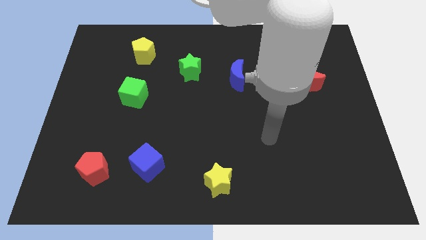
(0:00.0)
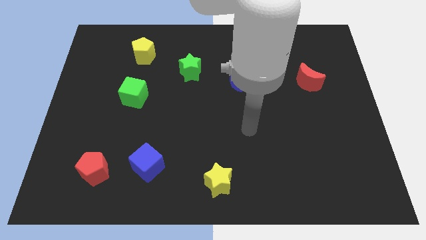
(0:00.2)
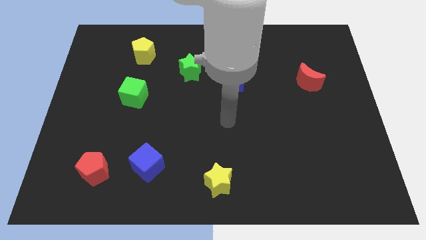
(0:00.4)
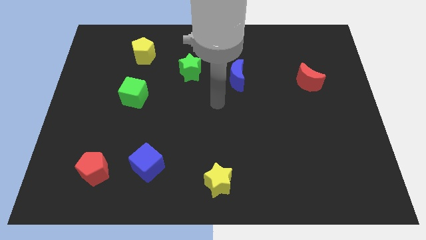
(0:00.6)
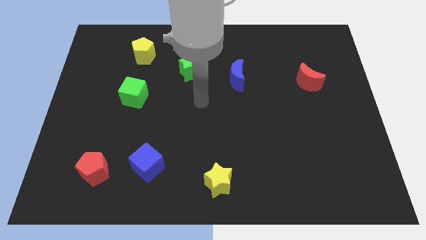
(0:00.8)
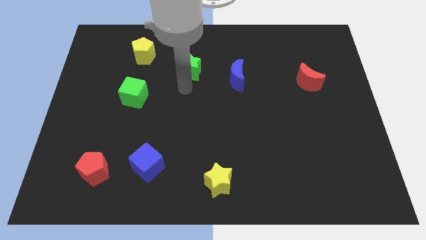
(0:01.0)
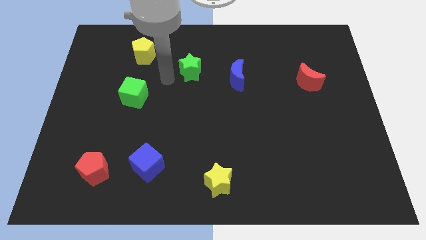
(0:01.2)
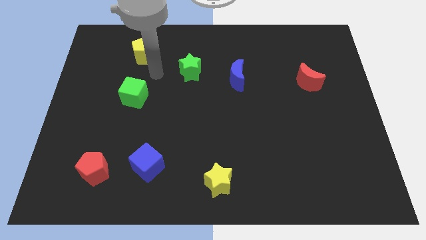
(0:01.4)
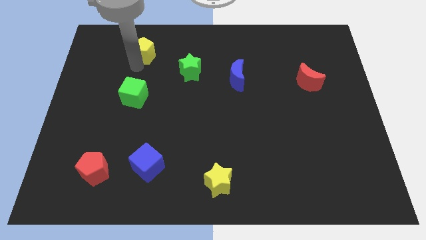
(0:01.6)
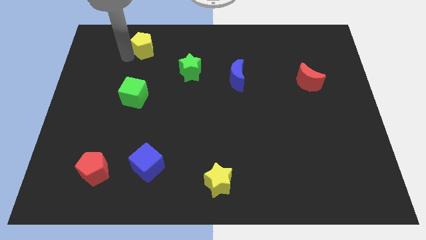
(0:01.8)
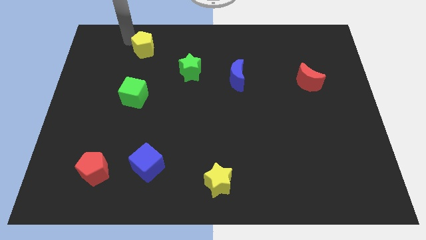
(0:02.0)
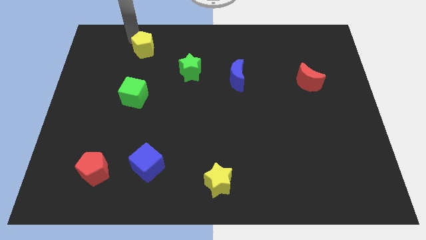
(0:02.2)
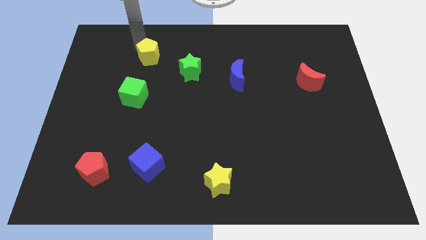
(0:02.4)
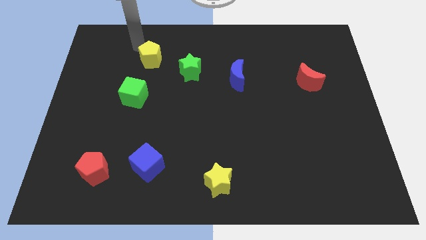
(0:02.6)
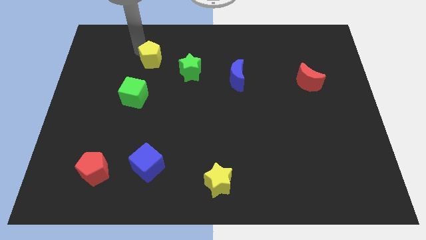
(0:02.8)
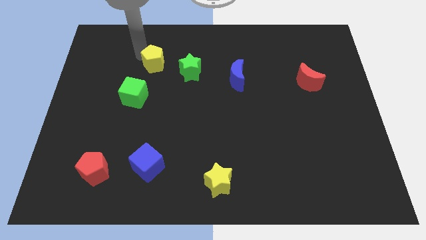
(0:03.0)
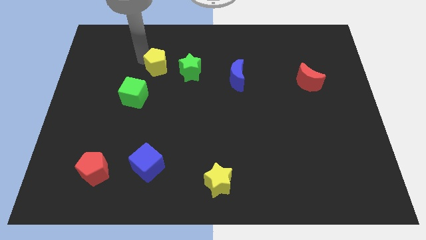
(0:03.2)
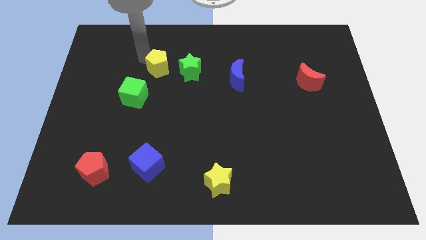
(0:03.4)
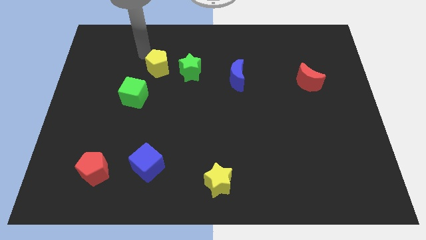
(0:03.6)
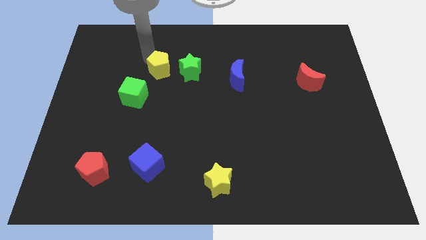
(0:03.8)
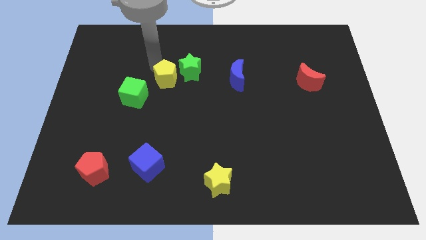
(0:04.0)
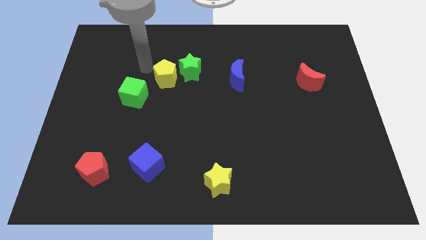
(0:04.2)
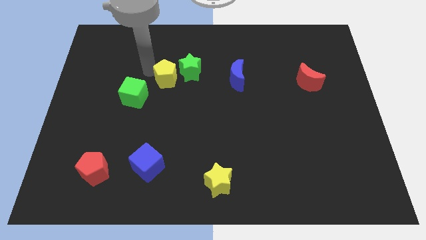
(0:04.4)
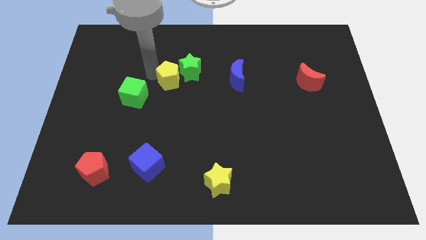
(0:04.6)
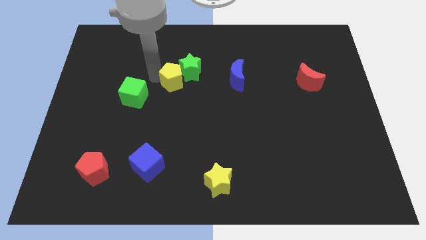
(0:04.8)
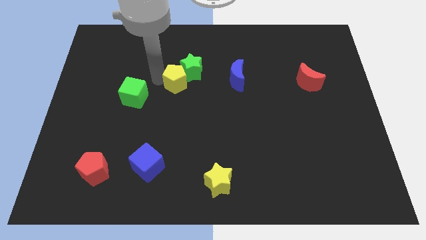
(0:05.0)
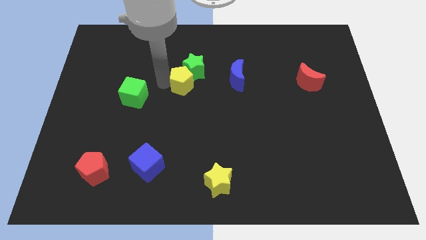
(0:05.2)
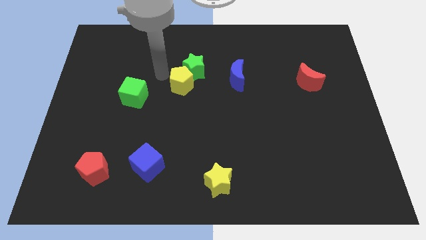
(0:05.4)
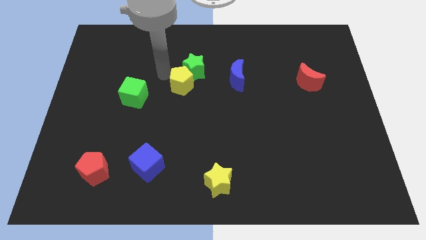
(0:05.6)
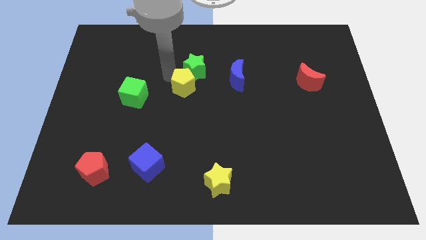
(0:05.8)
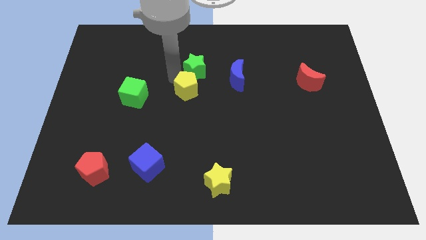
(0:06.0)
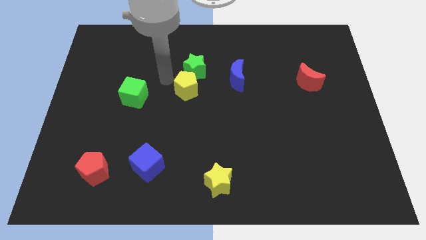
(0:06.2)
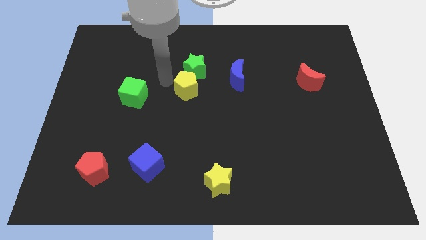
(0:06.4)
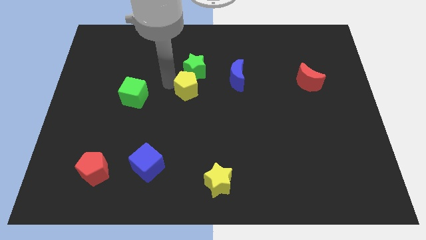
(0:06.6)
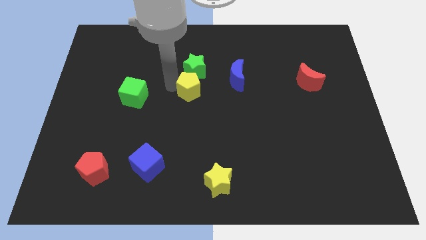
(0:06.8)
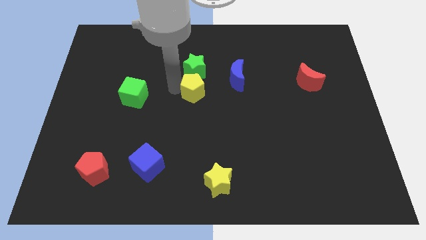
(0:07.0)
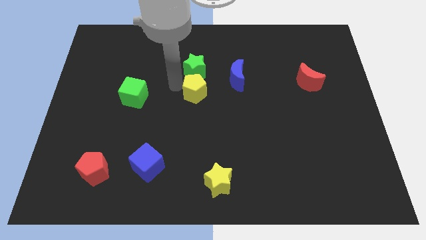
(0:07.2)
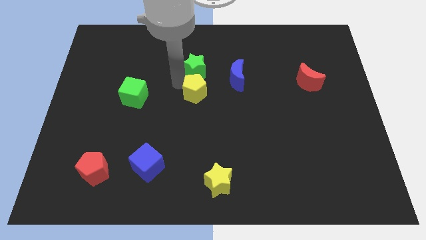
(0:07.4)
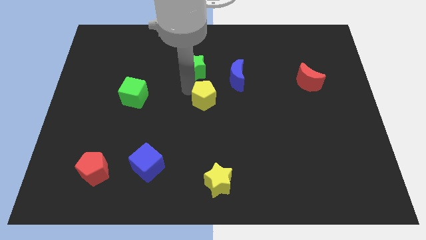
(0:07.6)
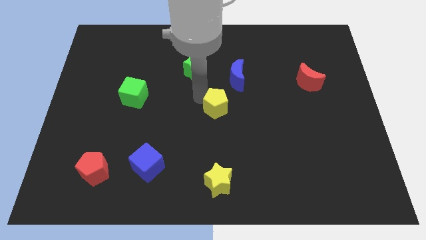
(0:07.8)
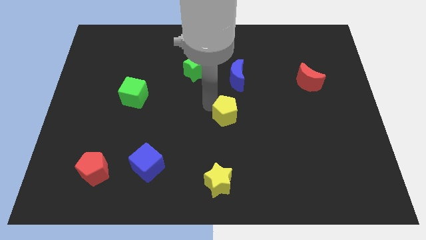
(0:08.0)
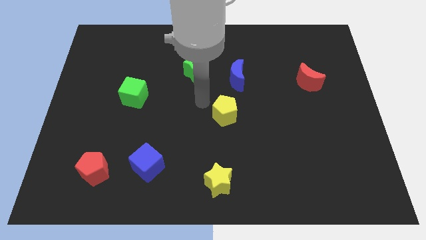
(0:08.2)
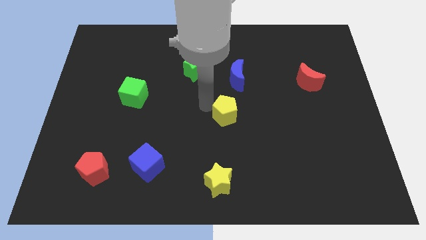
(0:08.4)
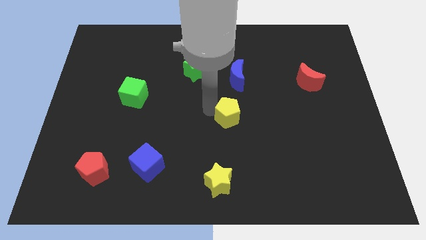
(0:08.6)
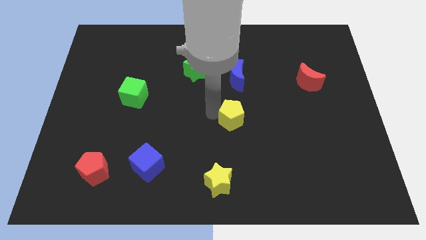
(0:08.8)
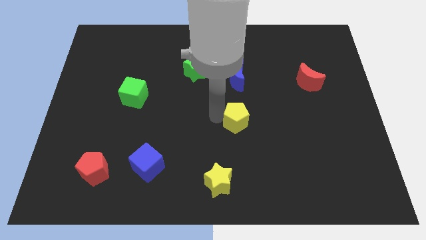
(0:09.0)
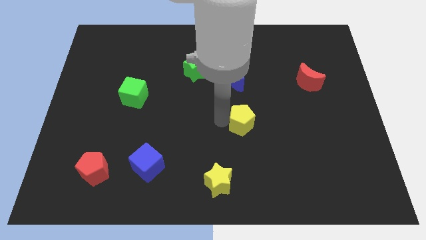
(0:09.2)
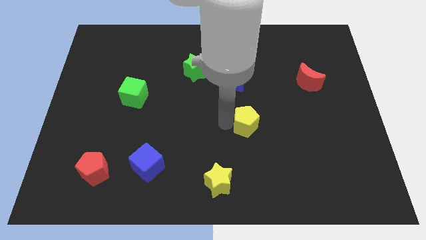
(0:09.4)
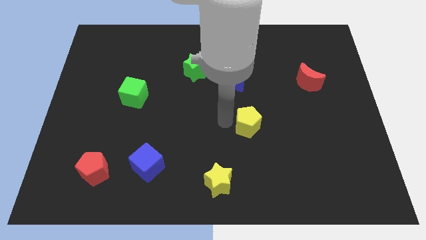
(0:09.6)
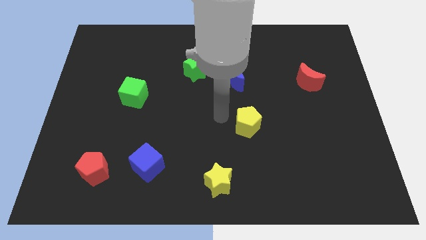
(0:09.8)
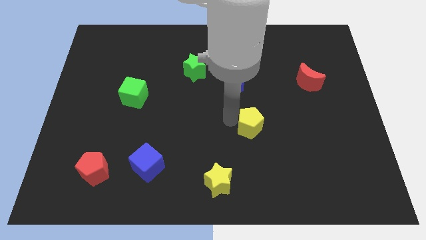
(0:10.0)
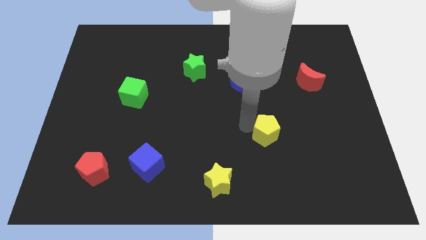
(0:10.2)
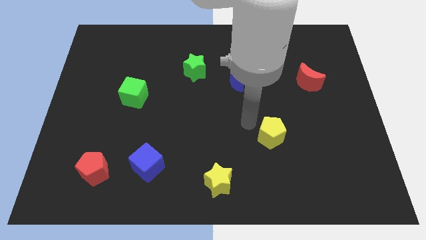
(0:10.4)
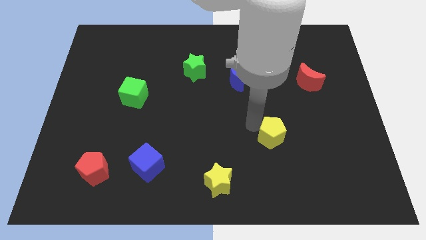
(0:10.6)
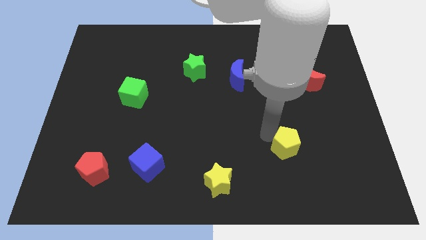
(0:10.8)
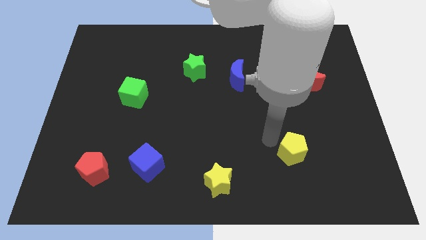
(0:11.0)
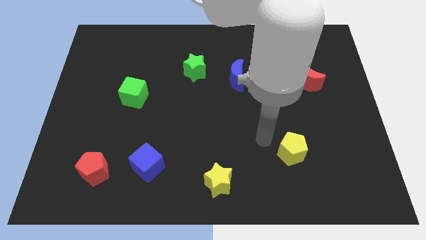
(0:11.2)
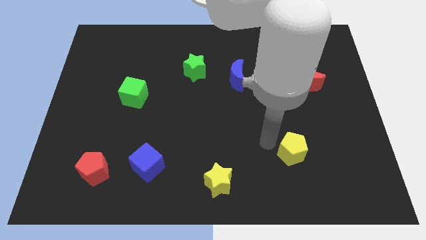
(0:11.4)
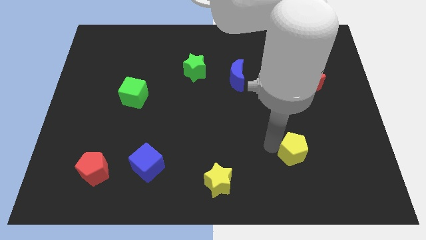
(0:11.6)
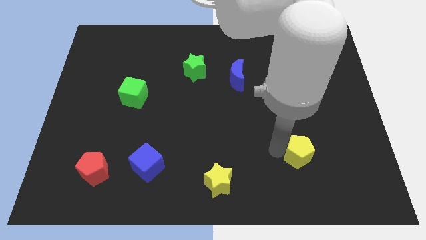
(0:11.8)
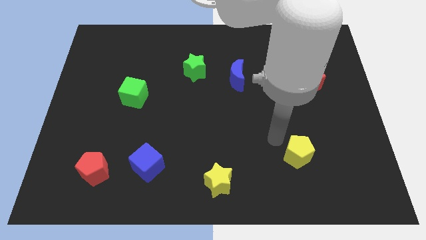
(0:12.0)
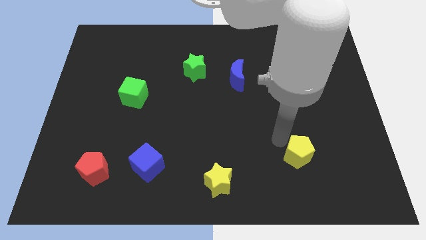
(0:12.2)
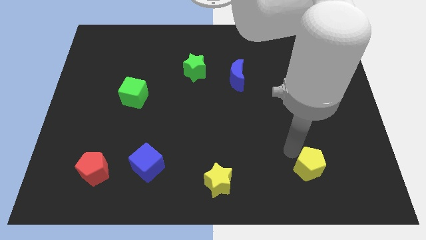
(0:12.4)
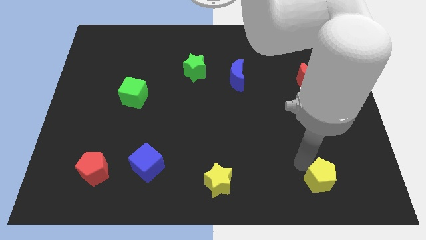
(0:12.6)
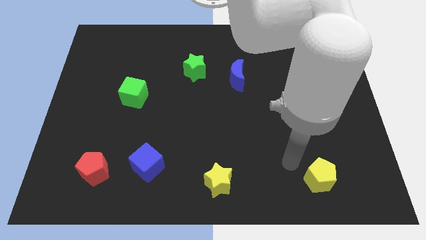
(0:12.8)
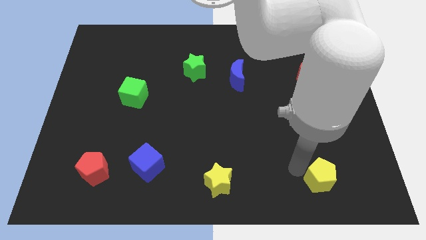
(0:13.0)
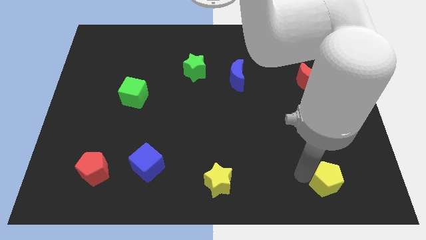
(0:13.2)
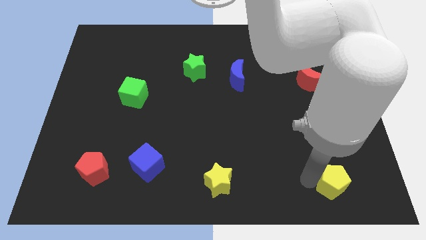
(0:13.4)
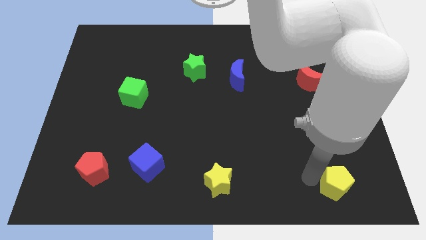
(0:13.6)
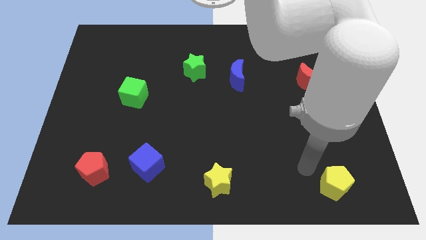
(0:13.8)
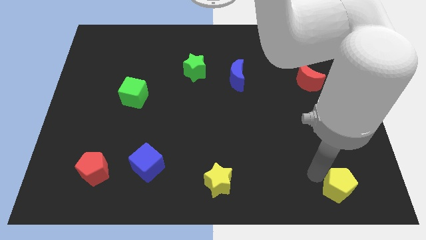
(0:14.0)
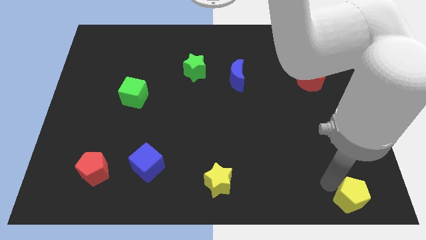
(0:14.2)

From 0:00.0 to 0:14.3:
push the yellow pentagon to the bottom right corner
